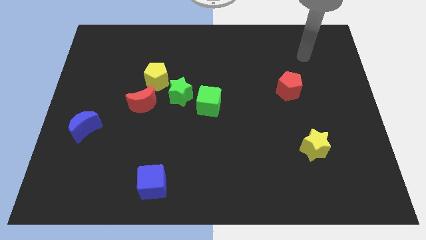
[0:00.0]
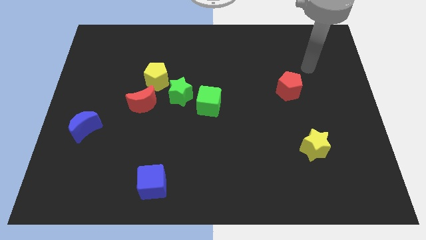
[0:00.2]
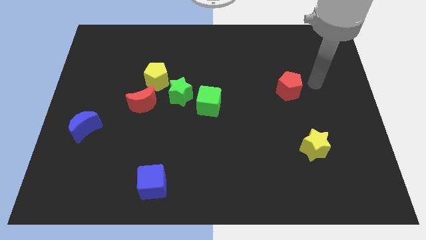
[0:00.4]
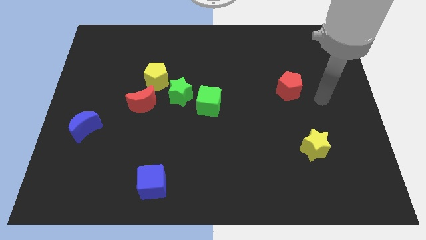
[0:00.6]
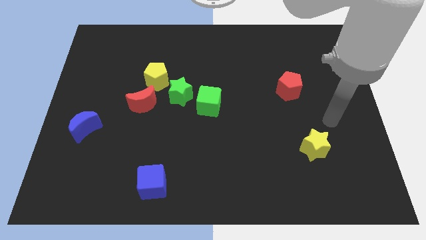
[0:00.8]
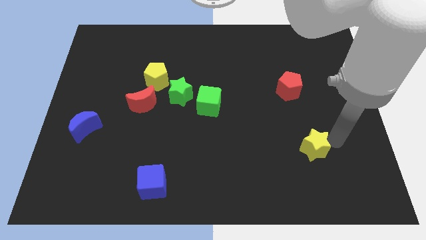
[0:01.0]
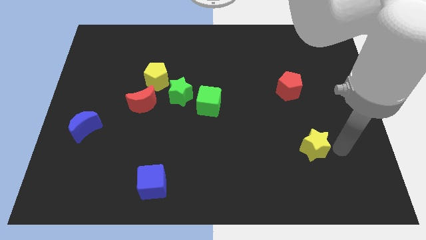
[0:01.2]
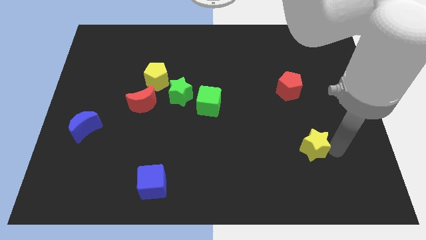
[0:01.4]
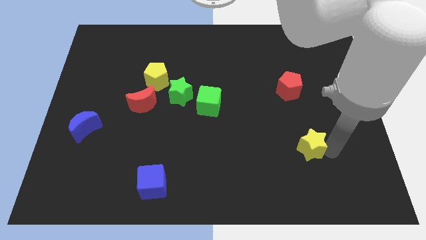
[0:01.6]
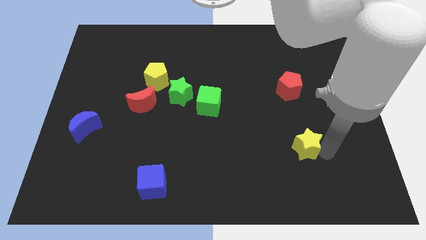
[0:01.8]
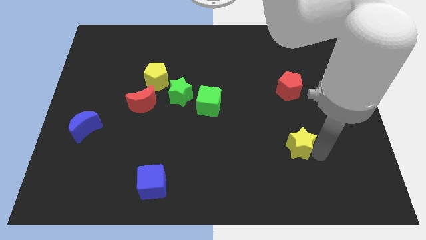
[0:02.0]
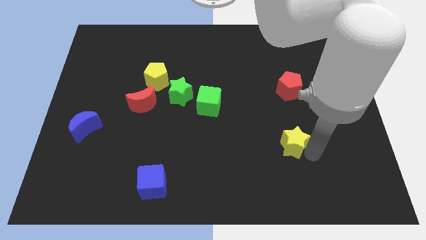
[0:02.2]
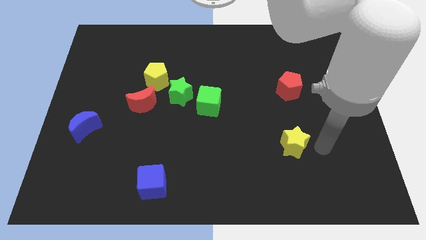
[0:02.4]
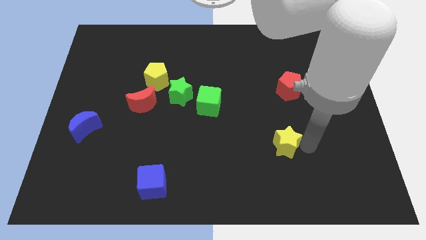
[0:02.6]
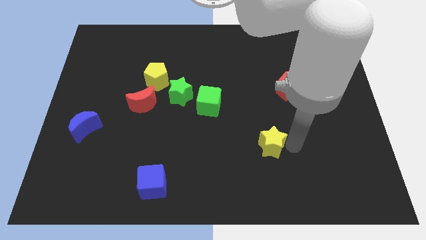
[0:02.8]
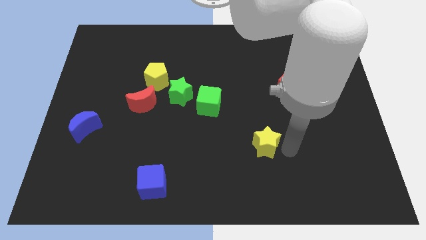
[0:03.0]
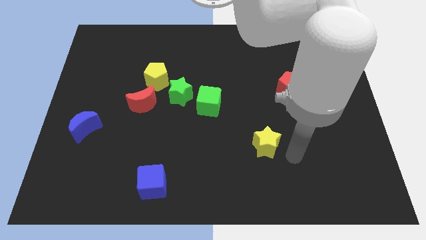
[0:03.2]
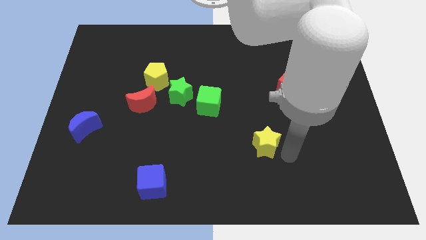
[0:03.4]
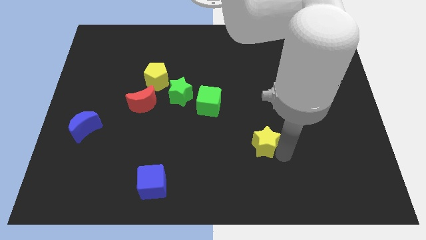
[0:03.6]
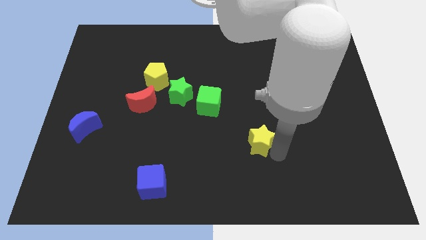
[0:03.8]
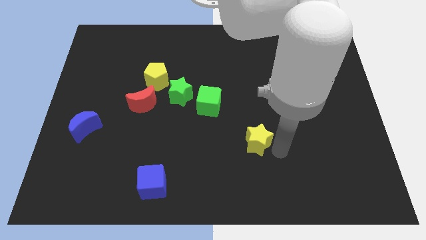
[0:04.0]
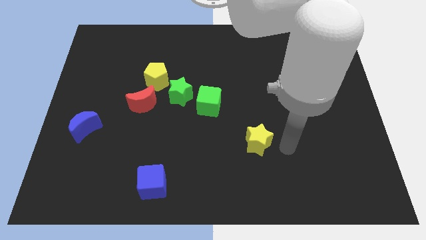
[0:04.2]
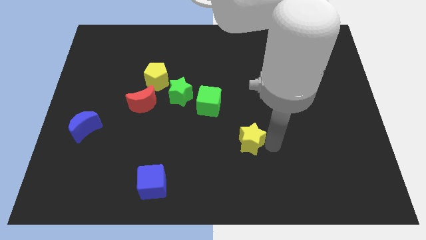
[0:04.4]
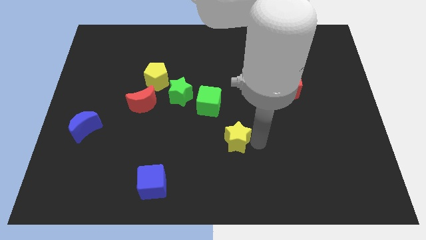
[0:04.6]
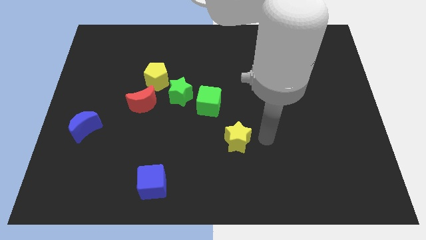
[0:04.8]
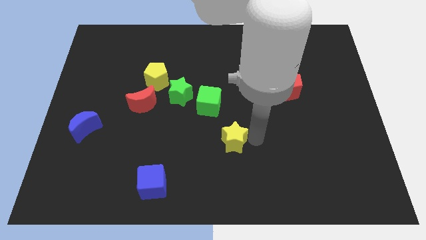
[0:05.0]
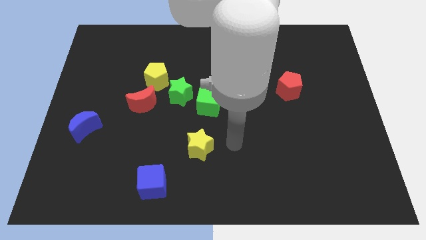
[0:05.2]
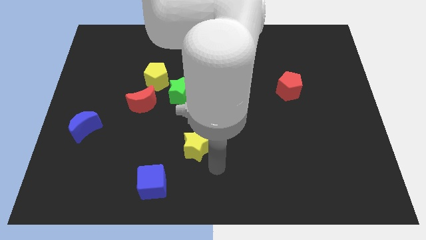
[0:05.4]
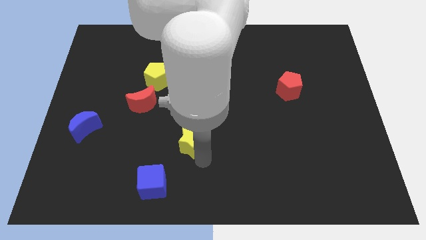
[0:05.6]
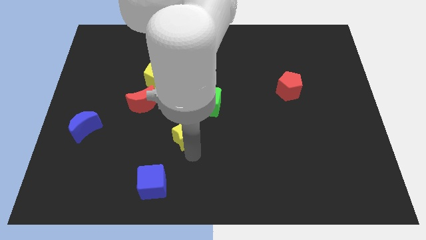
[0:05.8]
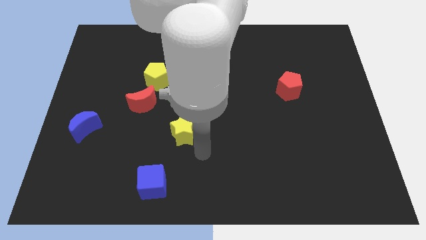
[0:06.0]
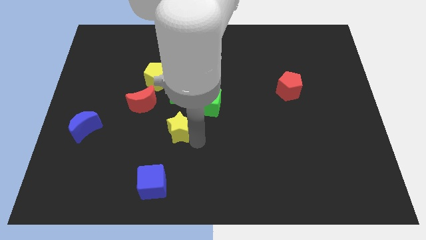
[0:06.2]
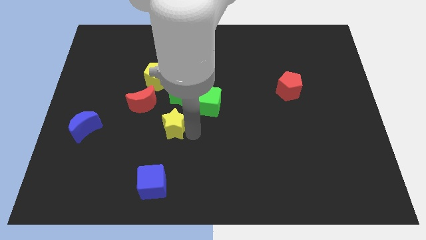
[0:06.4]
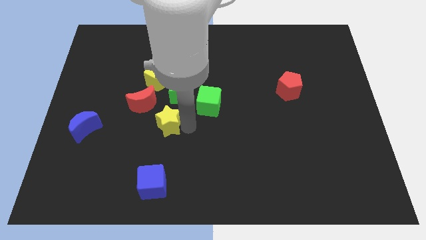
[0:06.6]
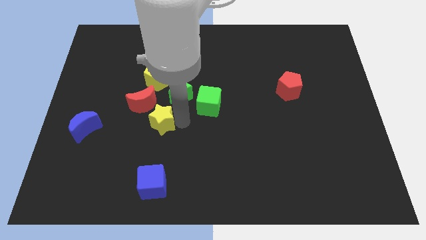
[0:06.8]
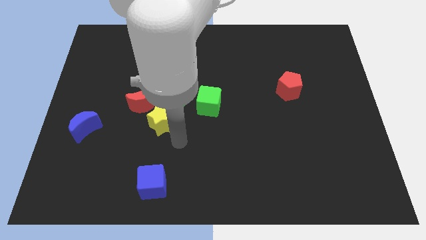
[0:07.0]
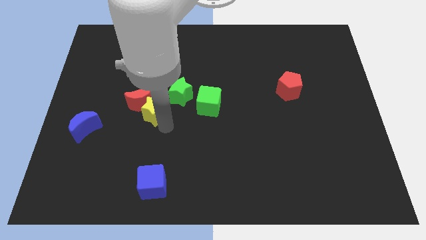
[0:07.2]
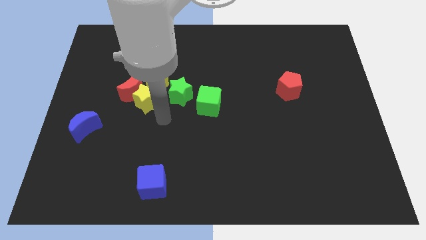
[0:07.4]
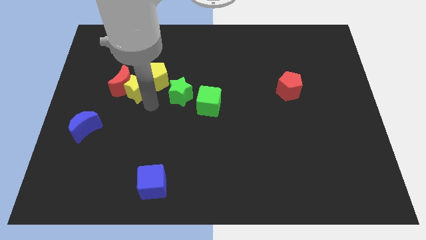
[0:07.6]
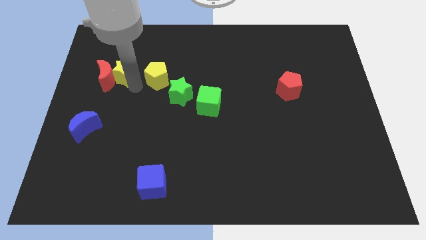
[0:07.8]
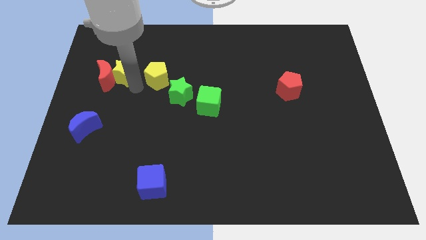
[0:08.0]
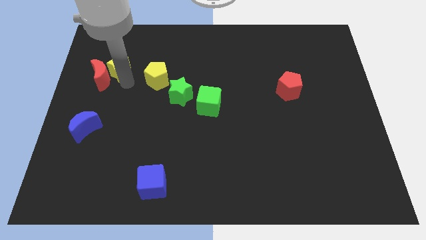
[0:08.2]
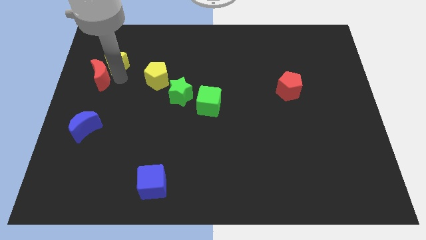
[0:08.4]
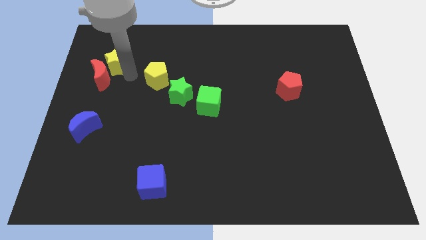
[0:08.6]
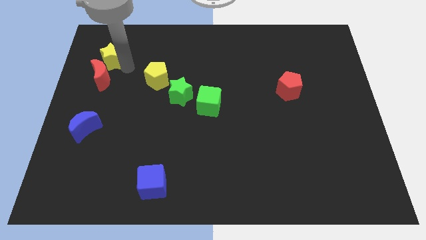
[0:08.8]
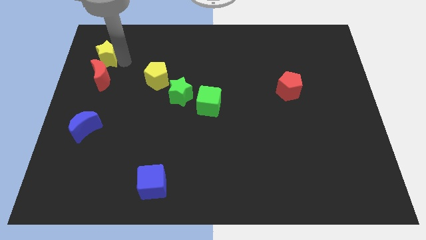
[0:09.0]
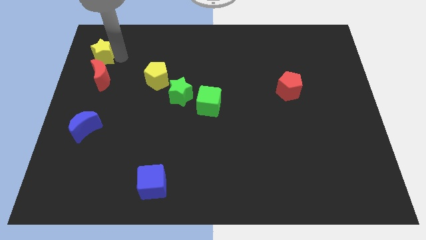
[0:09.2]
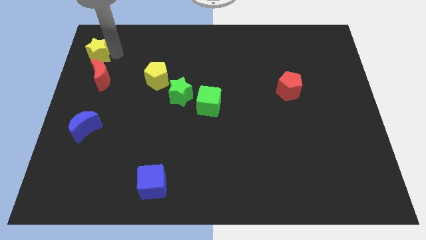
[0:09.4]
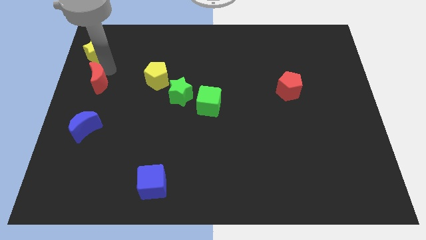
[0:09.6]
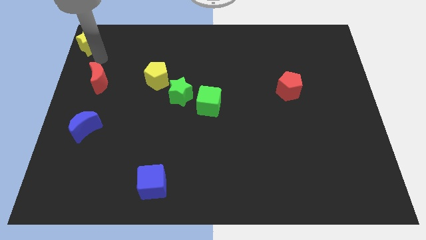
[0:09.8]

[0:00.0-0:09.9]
push the yellow star to the top left corner
